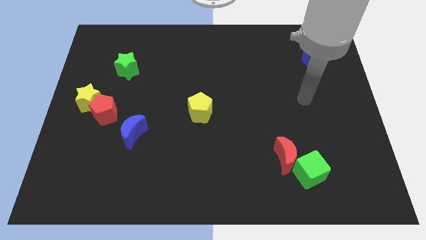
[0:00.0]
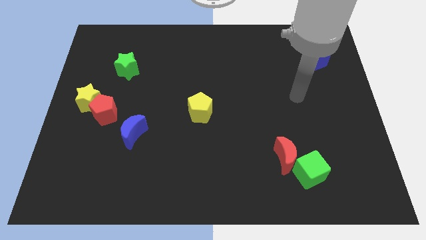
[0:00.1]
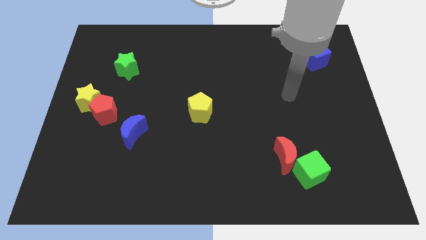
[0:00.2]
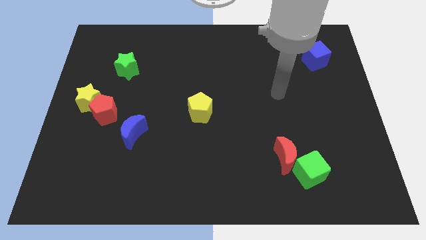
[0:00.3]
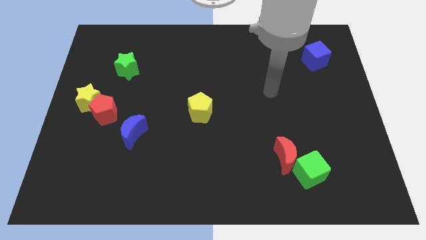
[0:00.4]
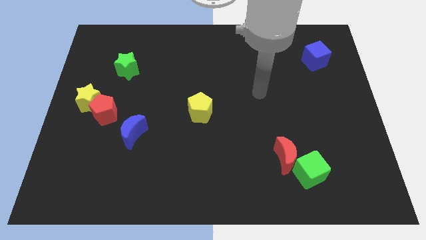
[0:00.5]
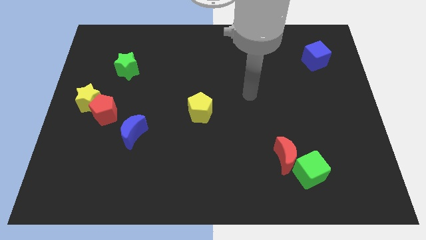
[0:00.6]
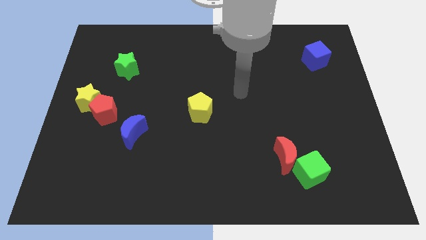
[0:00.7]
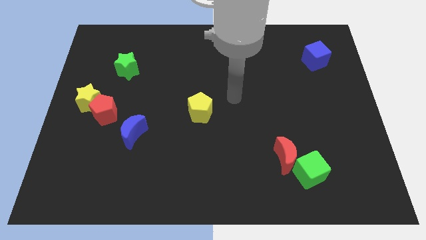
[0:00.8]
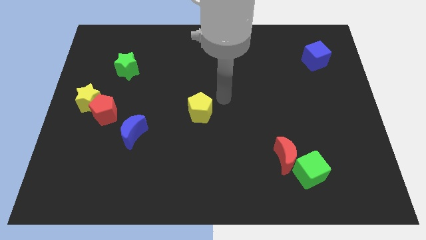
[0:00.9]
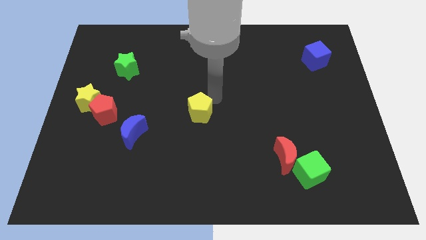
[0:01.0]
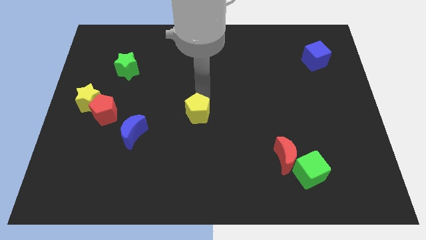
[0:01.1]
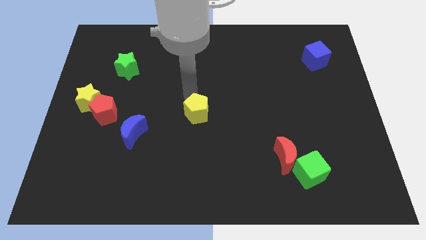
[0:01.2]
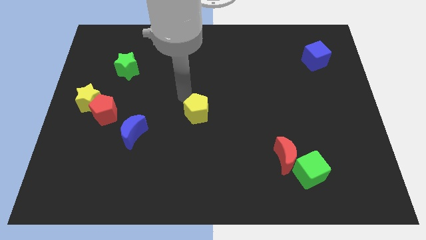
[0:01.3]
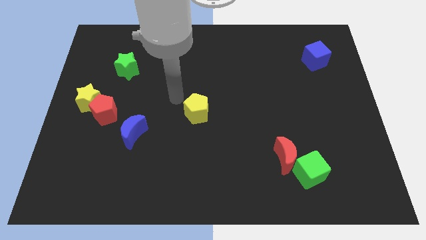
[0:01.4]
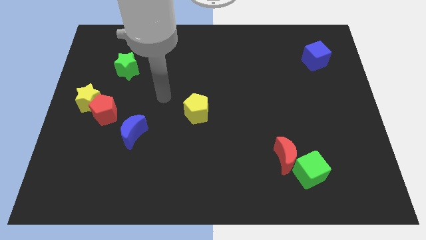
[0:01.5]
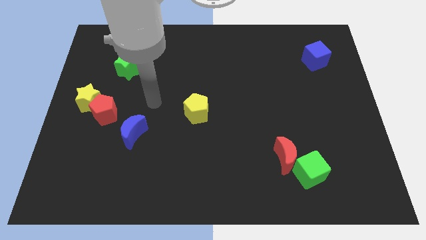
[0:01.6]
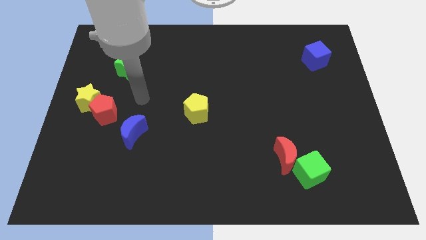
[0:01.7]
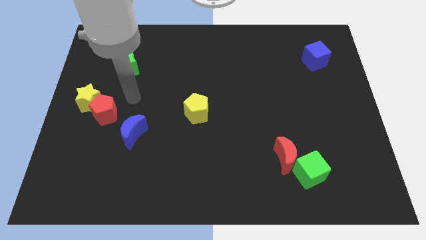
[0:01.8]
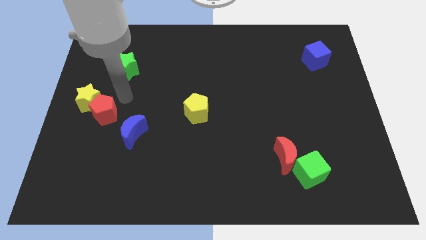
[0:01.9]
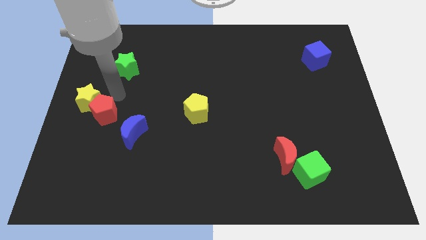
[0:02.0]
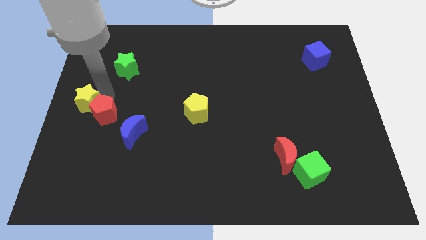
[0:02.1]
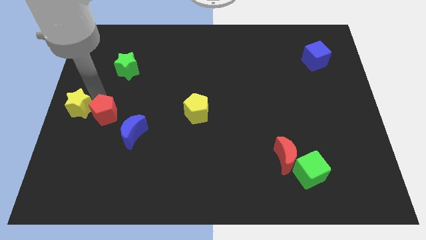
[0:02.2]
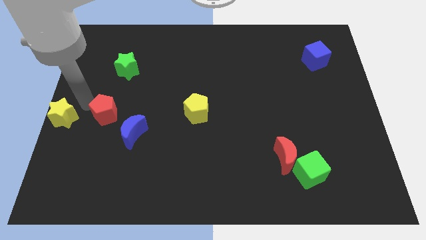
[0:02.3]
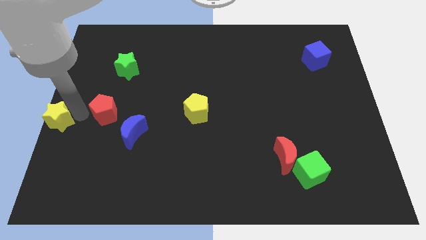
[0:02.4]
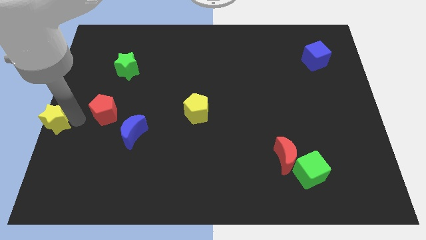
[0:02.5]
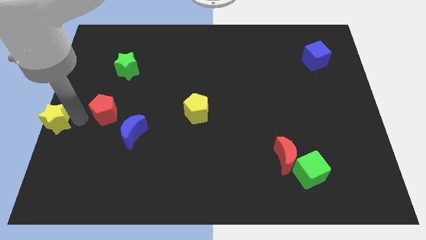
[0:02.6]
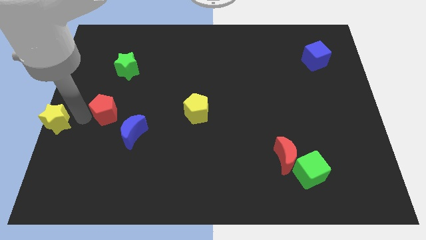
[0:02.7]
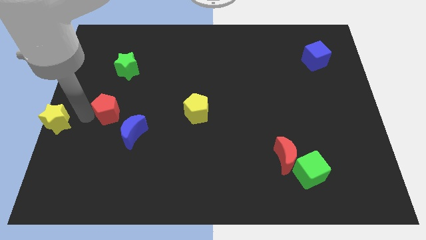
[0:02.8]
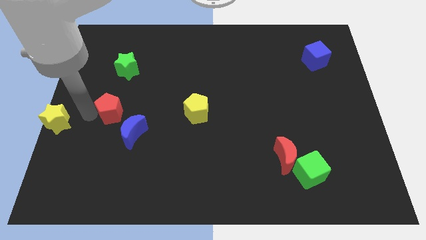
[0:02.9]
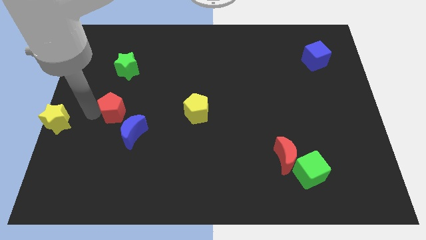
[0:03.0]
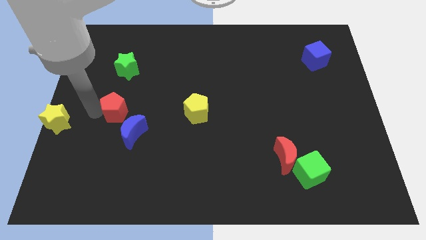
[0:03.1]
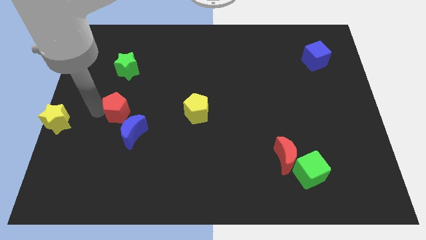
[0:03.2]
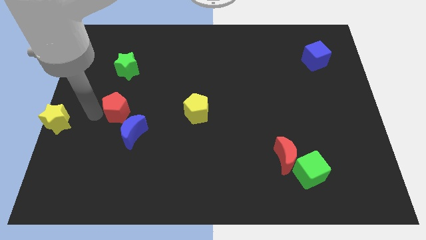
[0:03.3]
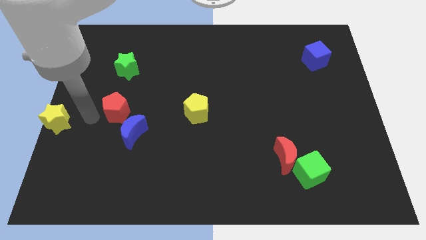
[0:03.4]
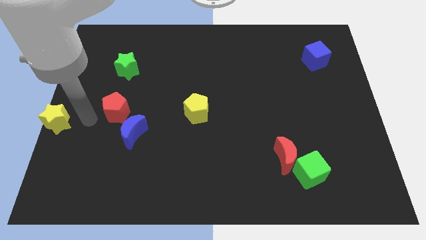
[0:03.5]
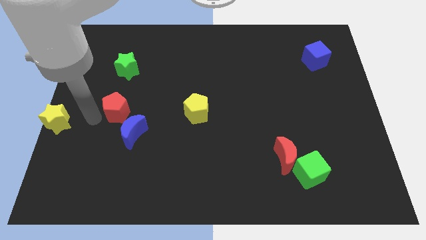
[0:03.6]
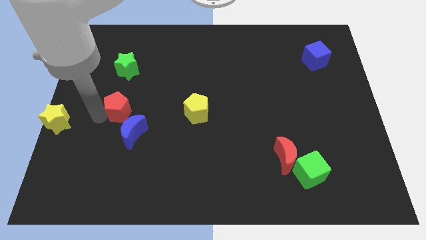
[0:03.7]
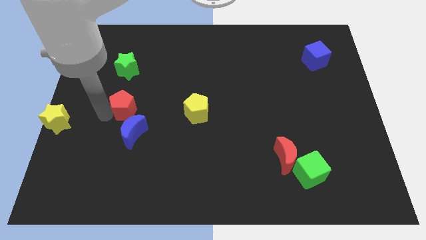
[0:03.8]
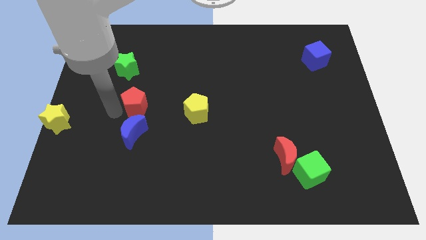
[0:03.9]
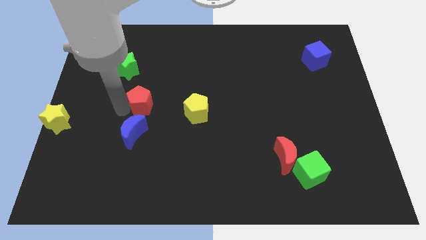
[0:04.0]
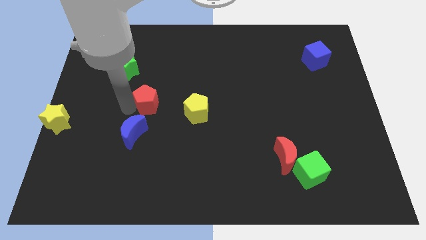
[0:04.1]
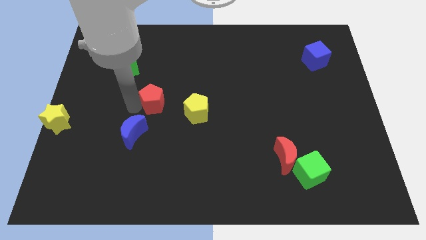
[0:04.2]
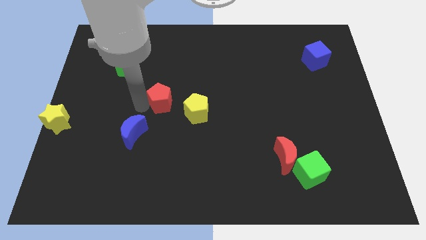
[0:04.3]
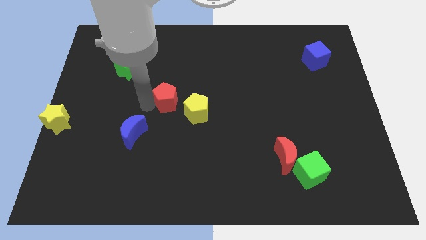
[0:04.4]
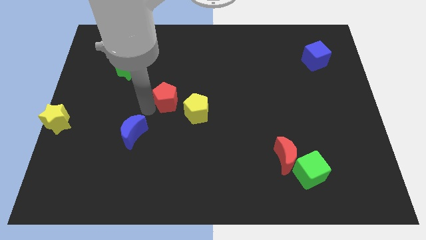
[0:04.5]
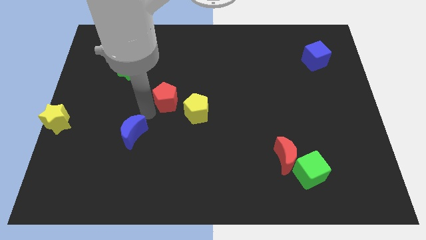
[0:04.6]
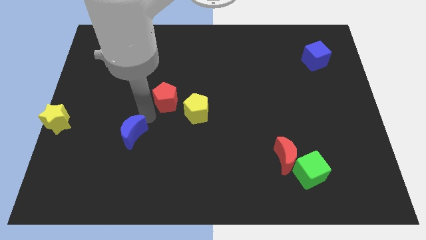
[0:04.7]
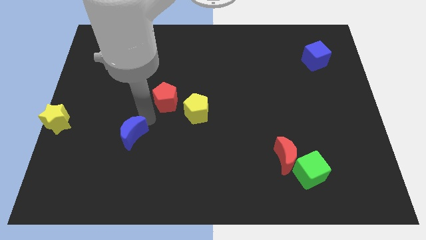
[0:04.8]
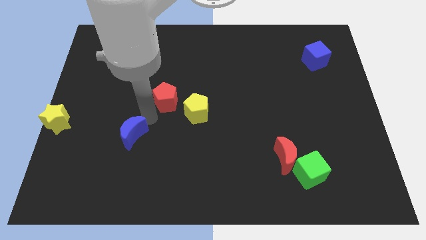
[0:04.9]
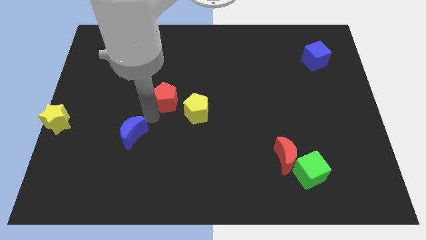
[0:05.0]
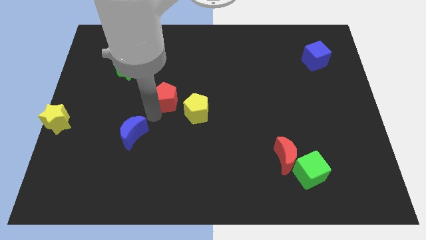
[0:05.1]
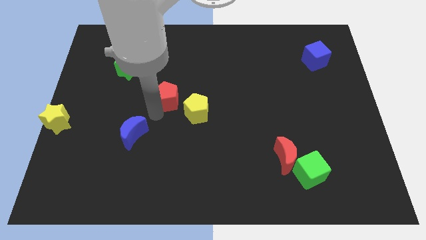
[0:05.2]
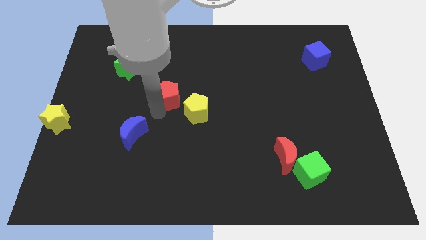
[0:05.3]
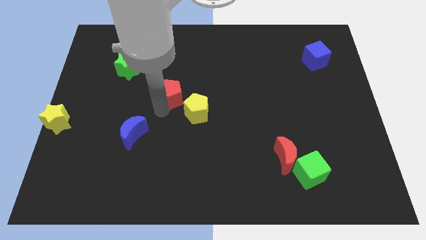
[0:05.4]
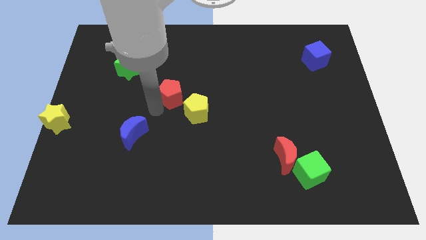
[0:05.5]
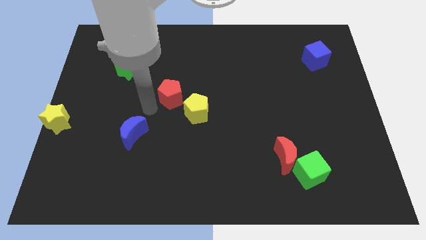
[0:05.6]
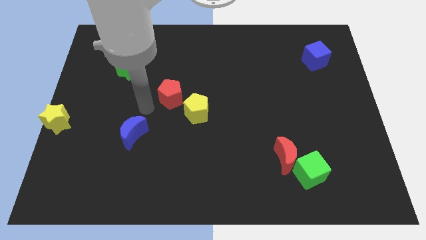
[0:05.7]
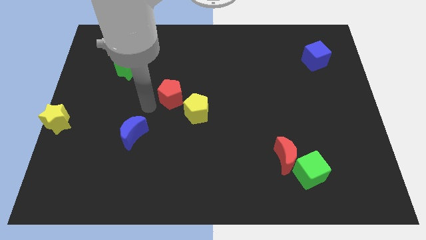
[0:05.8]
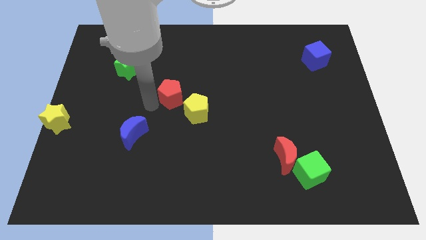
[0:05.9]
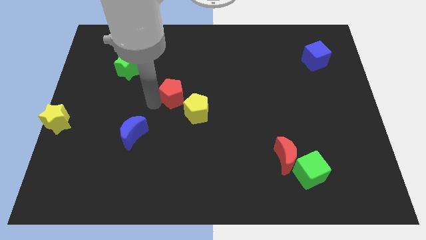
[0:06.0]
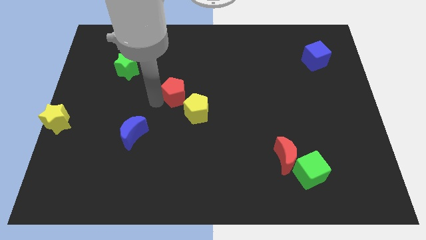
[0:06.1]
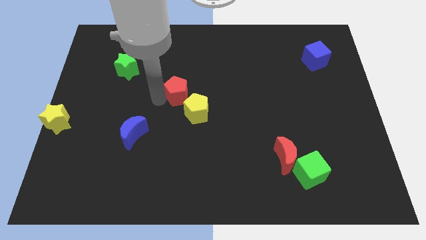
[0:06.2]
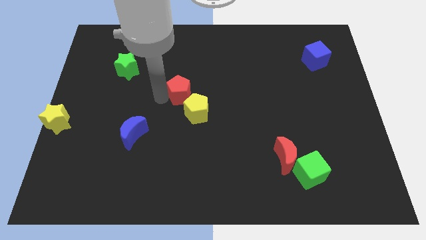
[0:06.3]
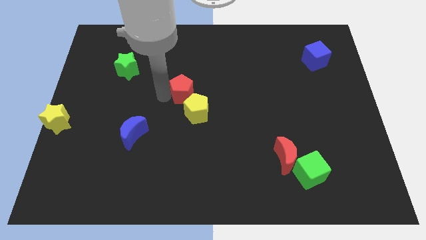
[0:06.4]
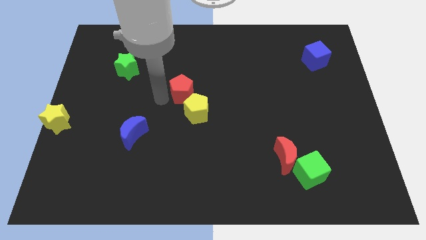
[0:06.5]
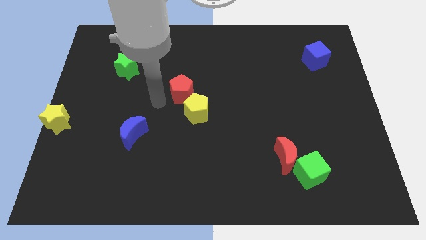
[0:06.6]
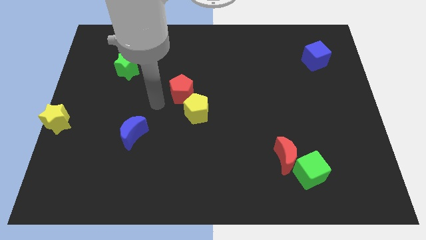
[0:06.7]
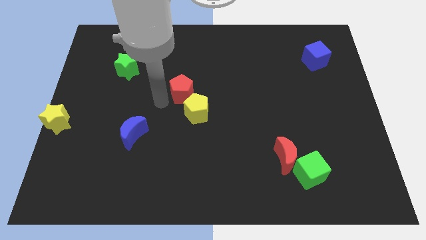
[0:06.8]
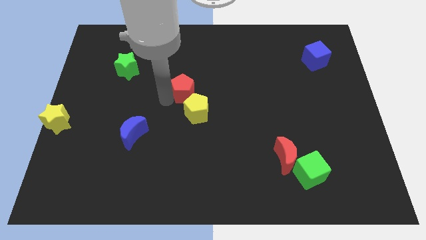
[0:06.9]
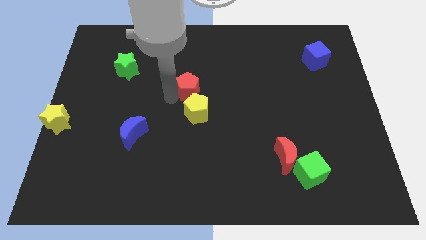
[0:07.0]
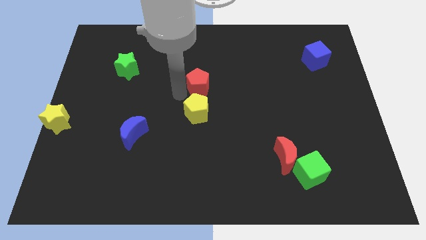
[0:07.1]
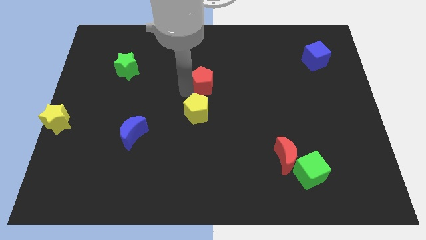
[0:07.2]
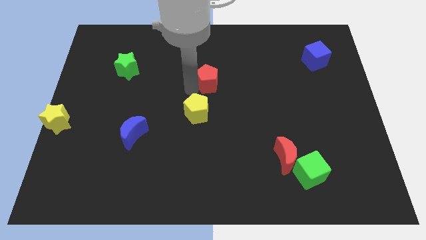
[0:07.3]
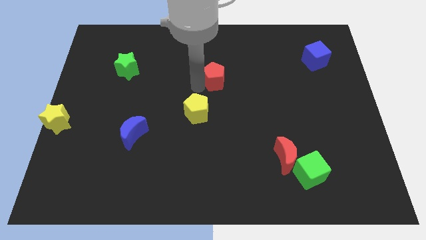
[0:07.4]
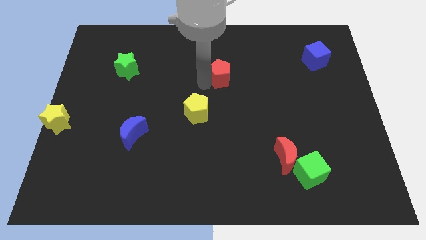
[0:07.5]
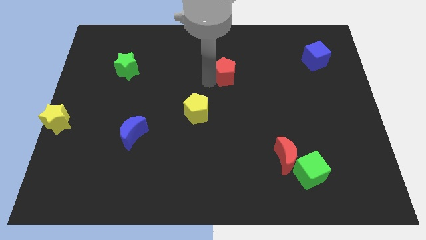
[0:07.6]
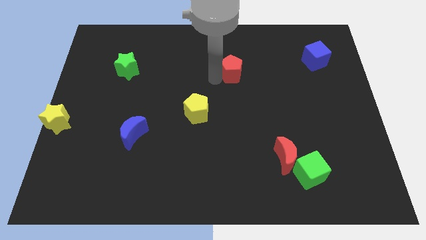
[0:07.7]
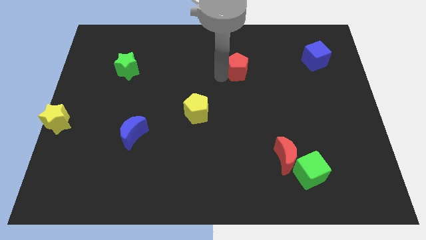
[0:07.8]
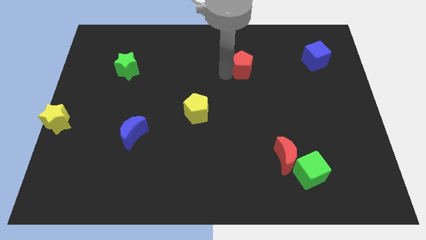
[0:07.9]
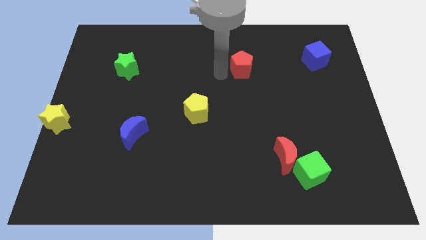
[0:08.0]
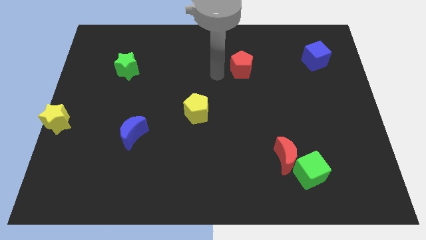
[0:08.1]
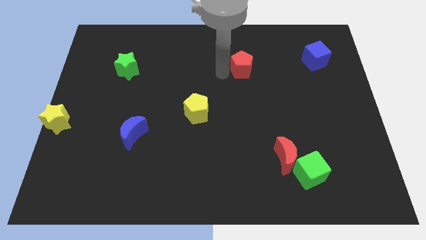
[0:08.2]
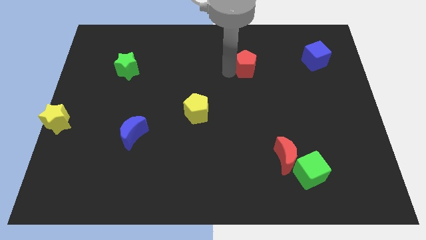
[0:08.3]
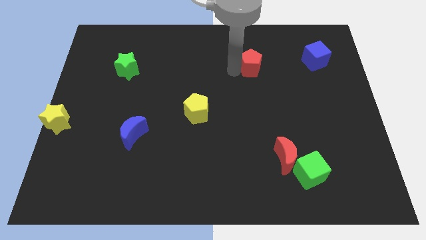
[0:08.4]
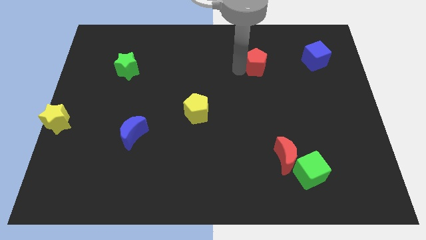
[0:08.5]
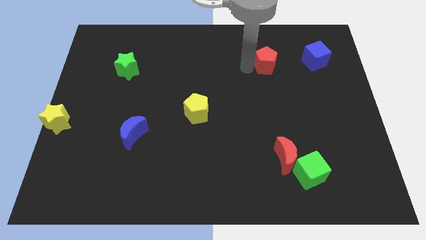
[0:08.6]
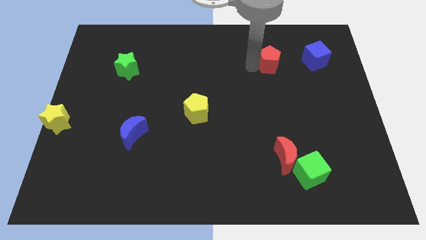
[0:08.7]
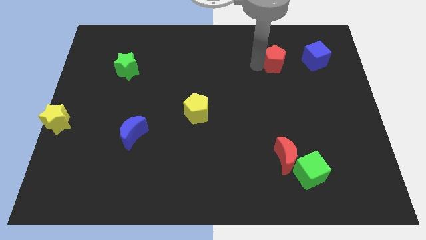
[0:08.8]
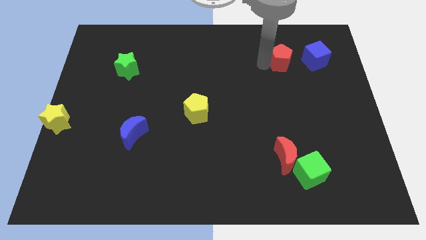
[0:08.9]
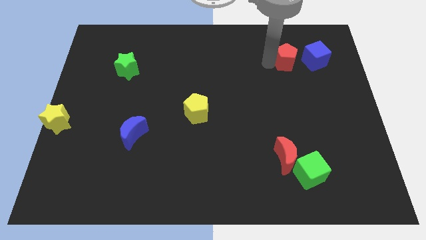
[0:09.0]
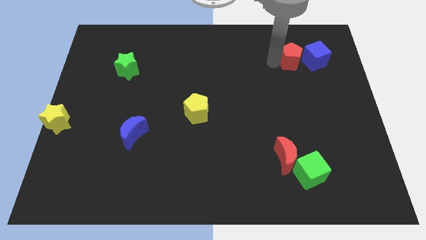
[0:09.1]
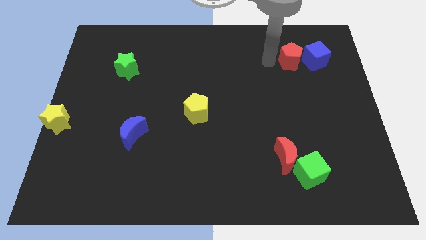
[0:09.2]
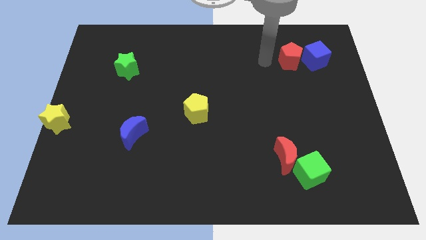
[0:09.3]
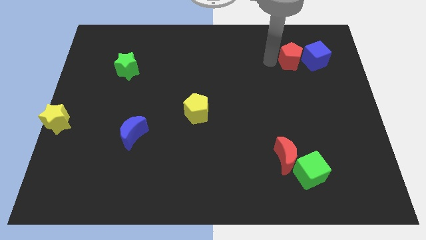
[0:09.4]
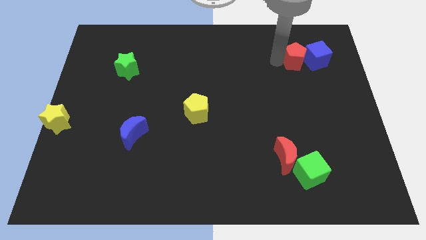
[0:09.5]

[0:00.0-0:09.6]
push the red pentagon towards the blue cube
